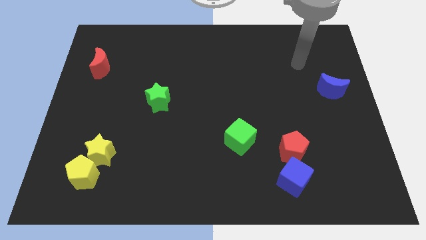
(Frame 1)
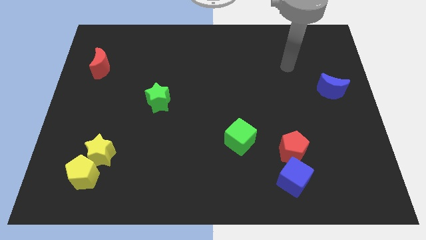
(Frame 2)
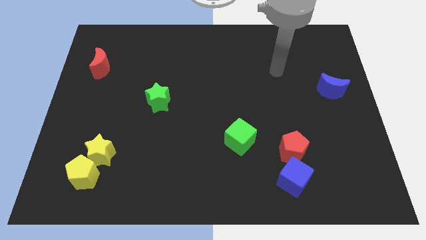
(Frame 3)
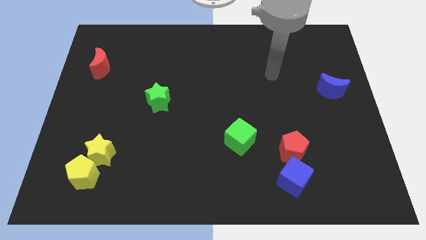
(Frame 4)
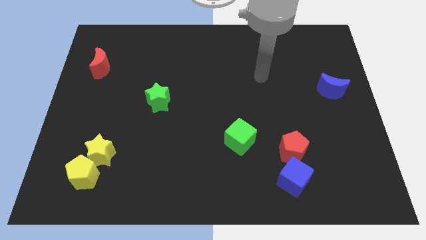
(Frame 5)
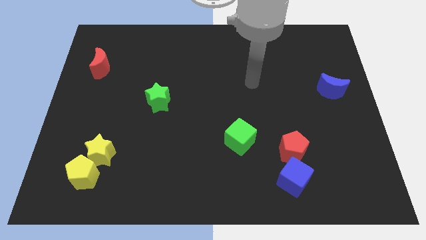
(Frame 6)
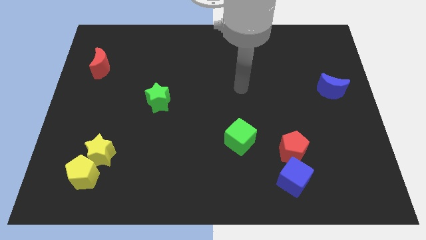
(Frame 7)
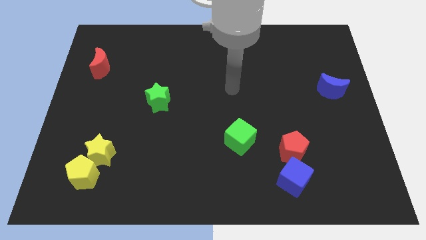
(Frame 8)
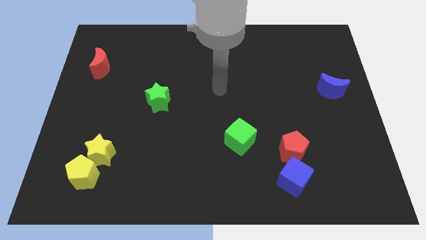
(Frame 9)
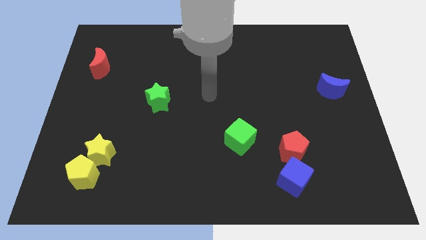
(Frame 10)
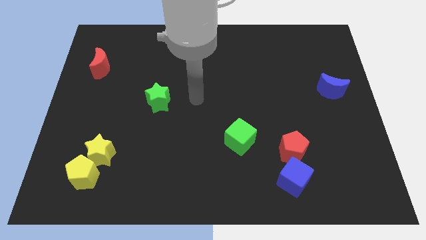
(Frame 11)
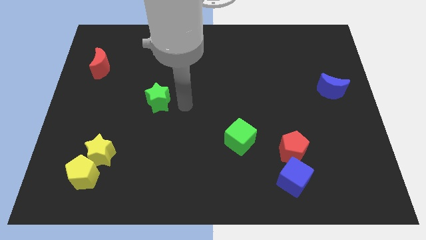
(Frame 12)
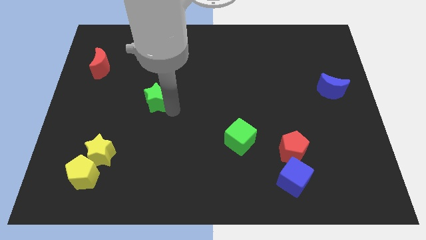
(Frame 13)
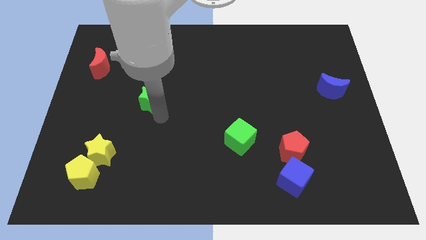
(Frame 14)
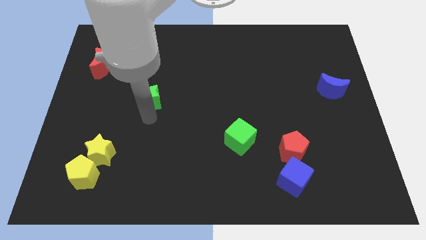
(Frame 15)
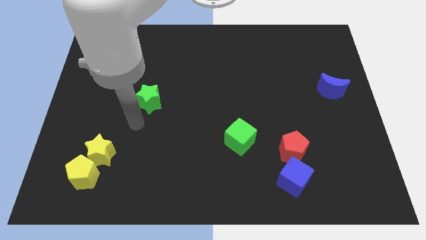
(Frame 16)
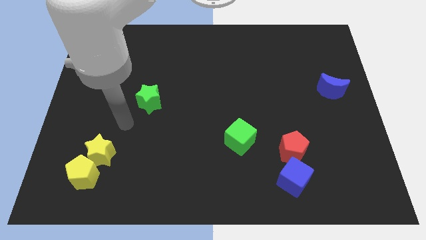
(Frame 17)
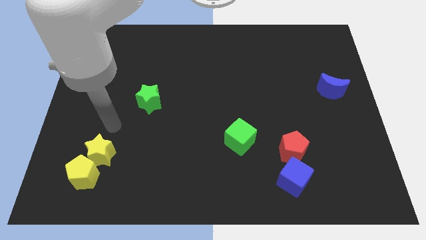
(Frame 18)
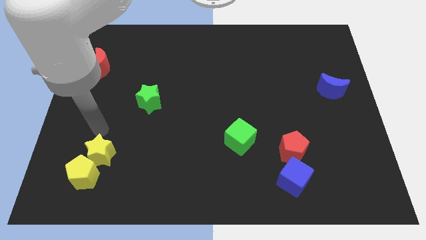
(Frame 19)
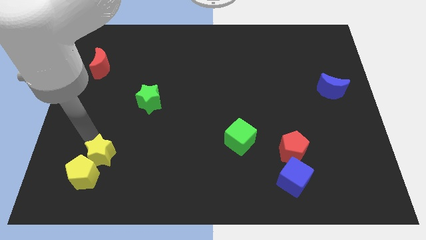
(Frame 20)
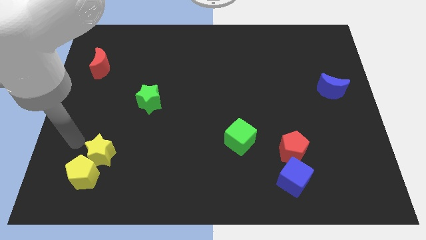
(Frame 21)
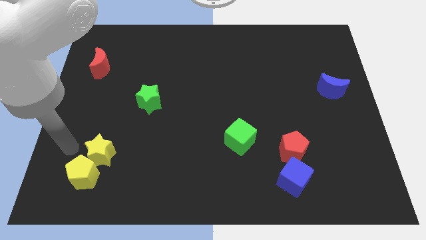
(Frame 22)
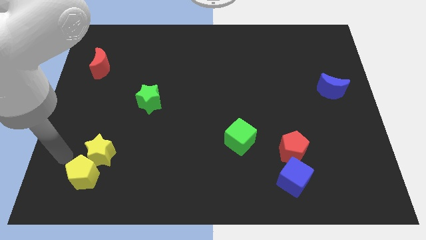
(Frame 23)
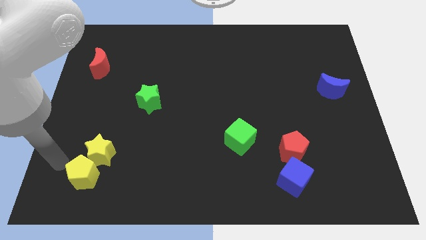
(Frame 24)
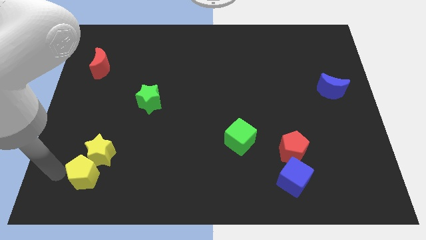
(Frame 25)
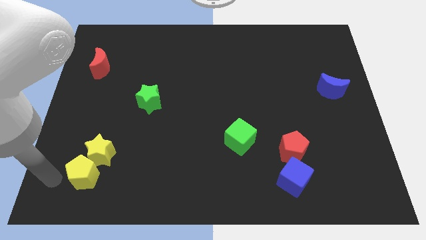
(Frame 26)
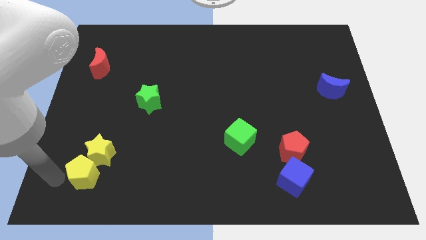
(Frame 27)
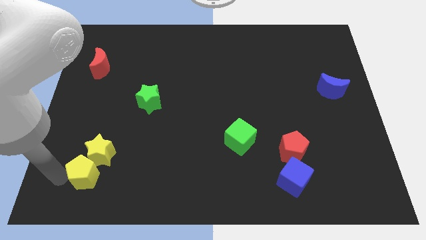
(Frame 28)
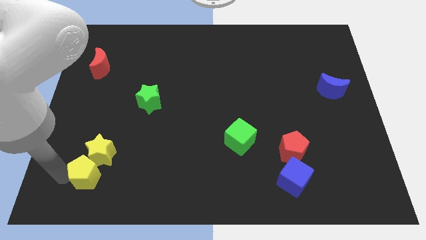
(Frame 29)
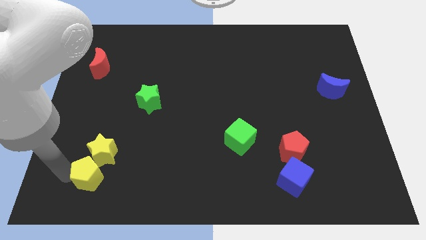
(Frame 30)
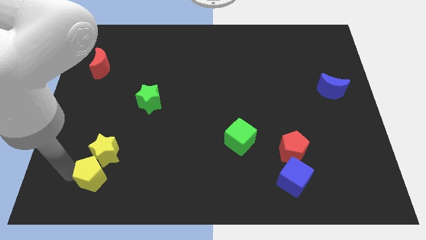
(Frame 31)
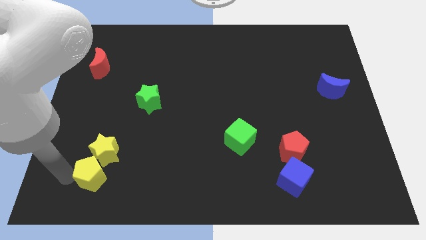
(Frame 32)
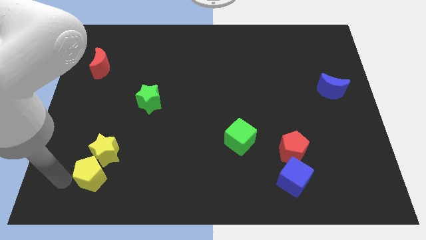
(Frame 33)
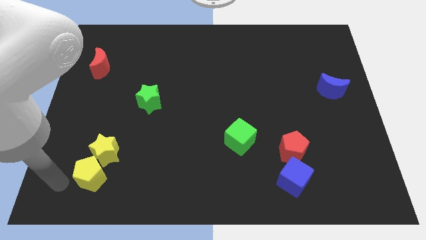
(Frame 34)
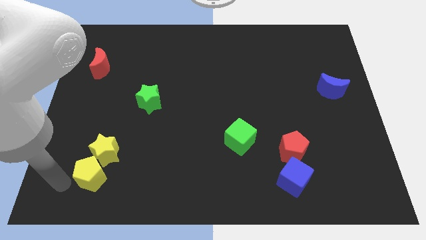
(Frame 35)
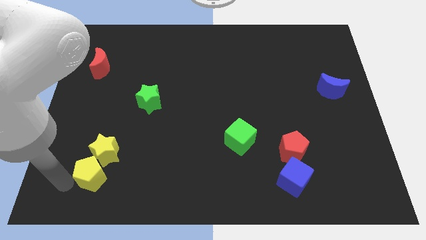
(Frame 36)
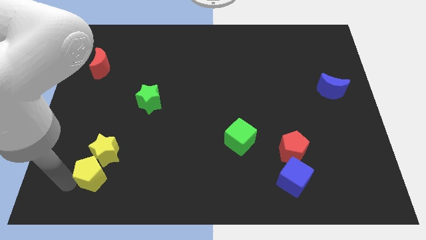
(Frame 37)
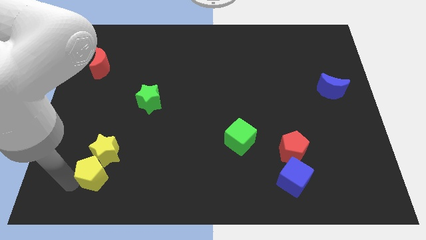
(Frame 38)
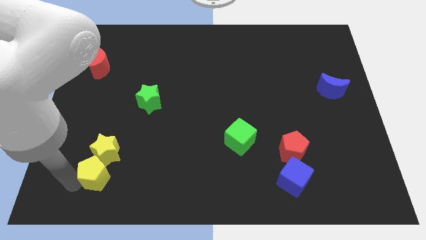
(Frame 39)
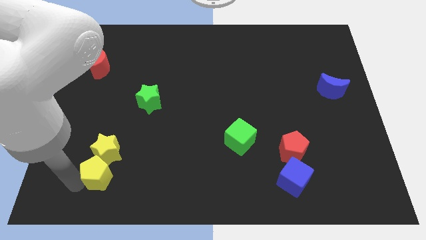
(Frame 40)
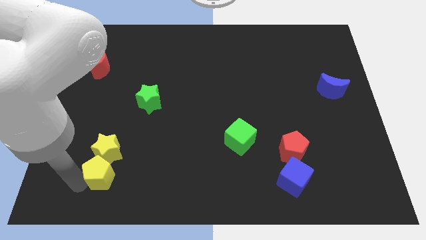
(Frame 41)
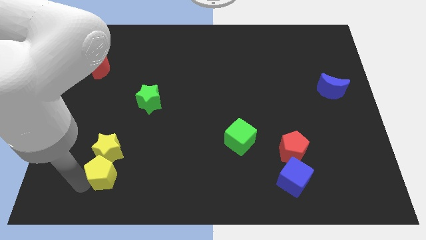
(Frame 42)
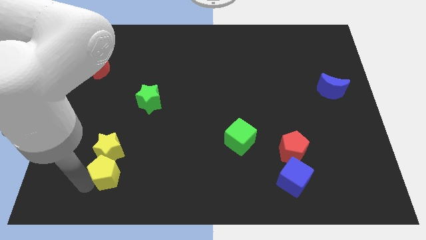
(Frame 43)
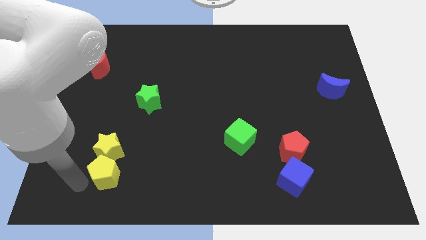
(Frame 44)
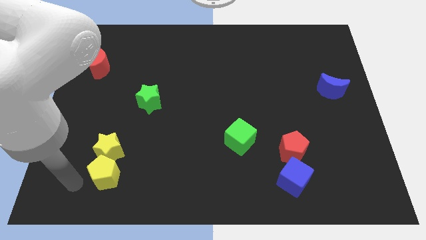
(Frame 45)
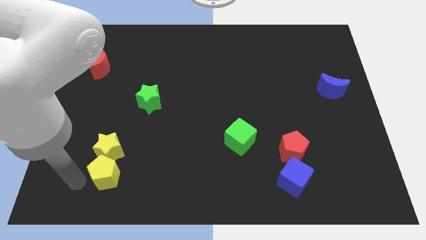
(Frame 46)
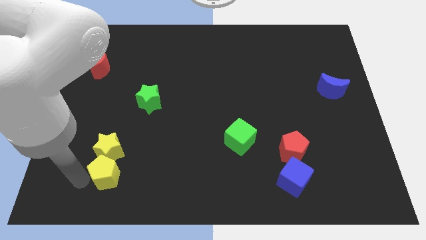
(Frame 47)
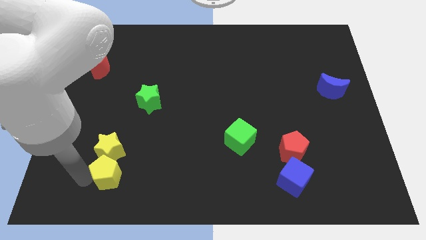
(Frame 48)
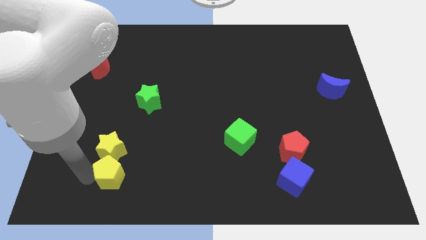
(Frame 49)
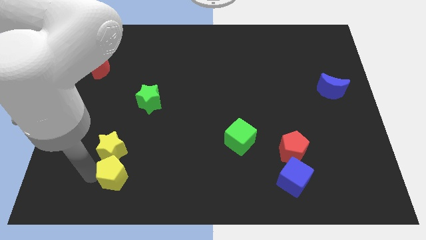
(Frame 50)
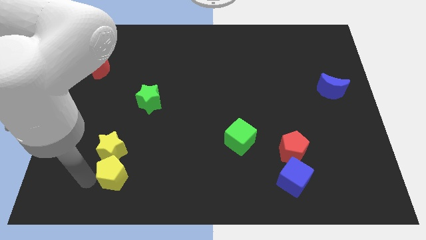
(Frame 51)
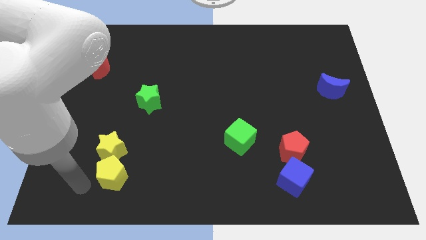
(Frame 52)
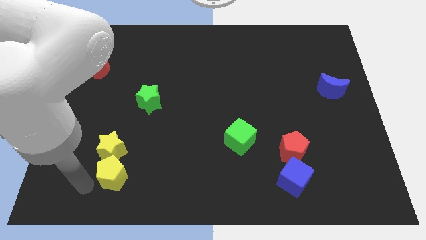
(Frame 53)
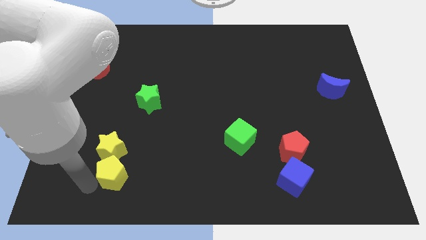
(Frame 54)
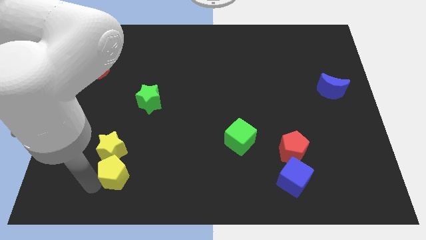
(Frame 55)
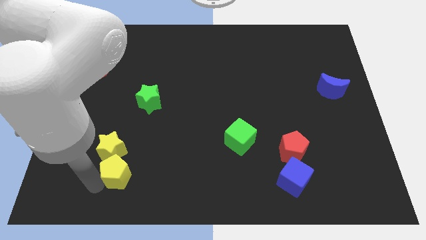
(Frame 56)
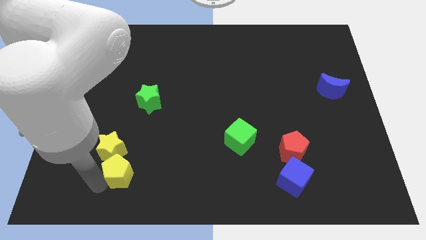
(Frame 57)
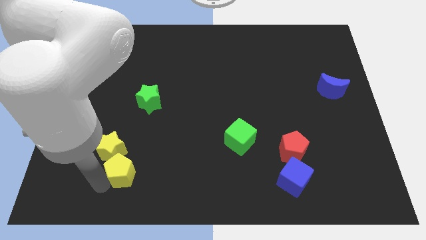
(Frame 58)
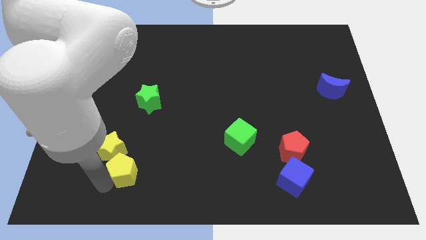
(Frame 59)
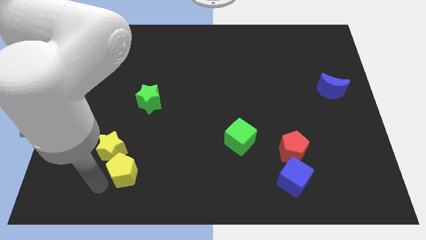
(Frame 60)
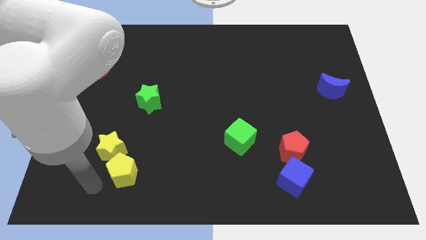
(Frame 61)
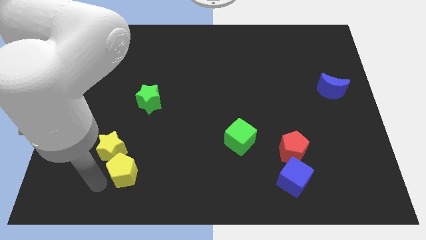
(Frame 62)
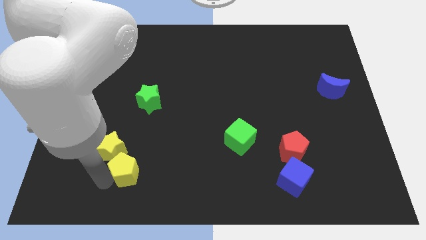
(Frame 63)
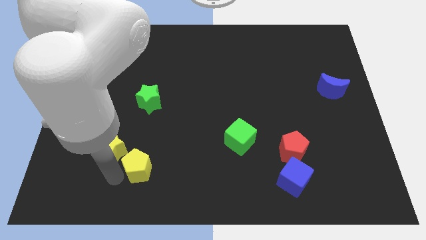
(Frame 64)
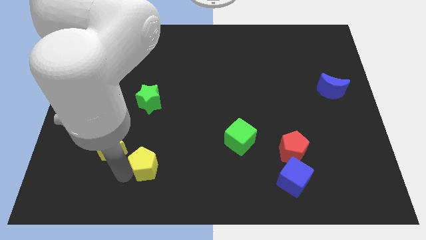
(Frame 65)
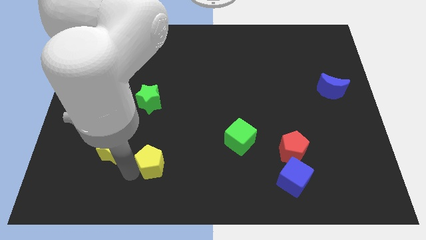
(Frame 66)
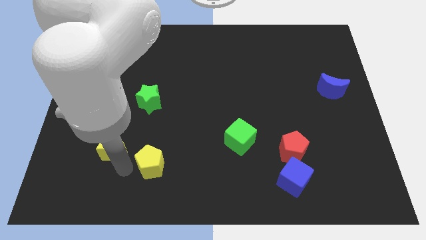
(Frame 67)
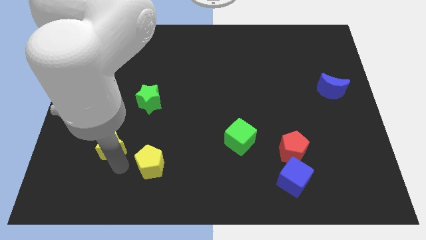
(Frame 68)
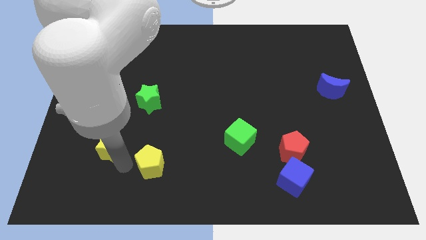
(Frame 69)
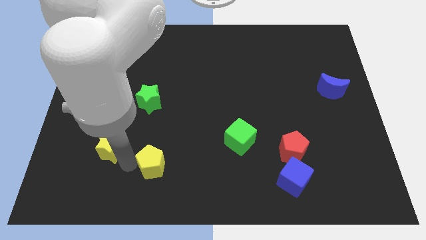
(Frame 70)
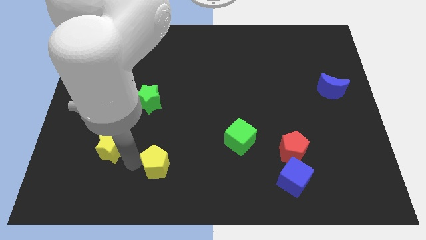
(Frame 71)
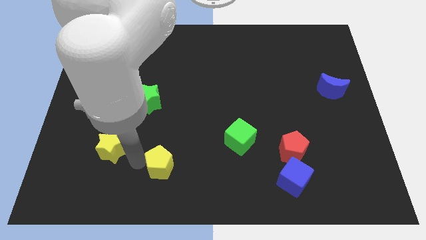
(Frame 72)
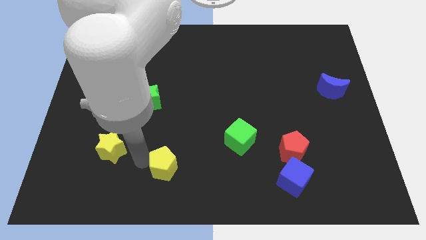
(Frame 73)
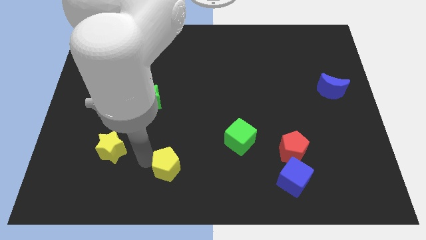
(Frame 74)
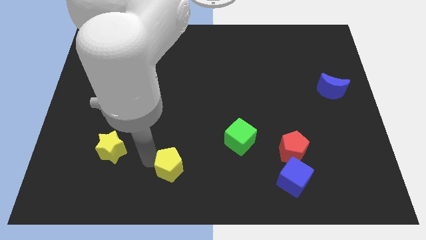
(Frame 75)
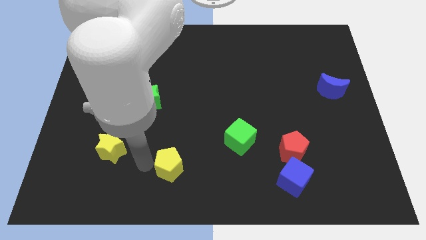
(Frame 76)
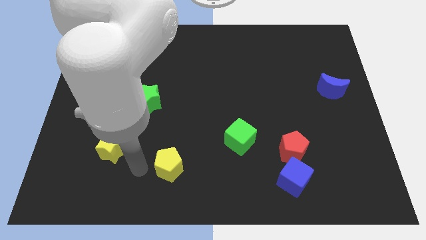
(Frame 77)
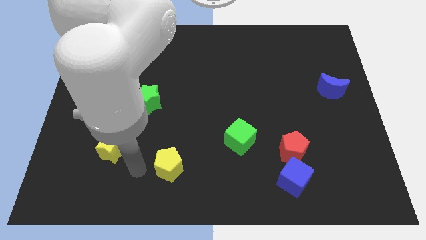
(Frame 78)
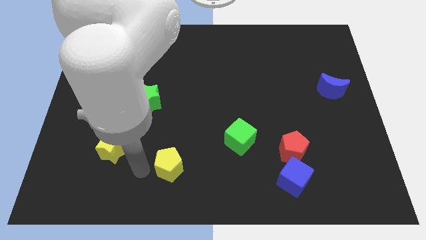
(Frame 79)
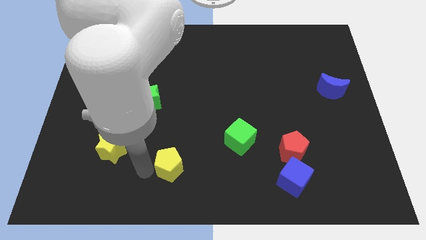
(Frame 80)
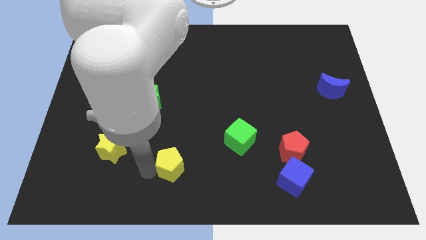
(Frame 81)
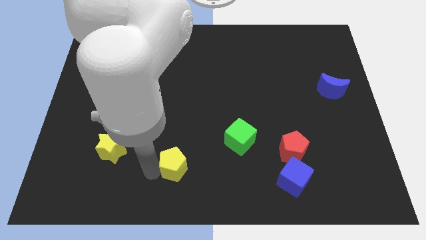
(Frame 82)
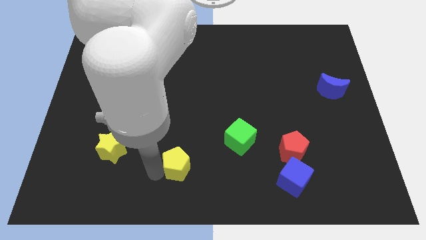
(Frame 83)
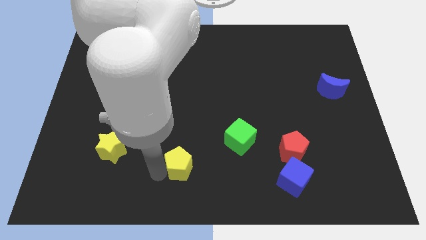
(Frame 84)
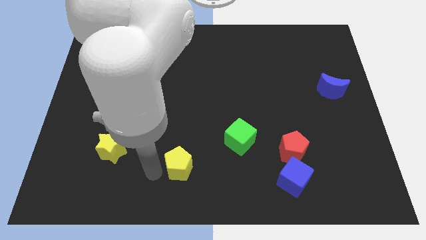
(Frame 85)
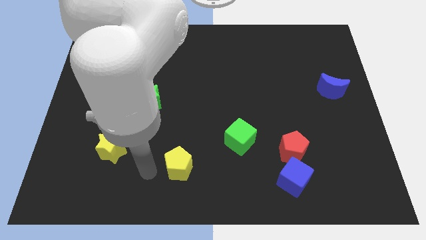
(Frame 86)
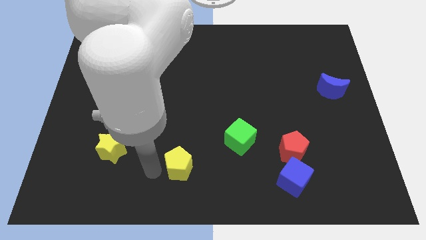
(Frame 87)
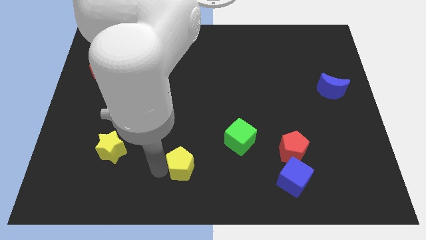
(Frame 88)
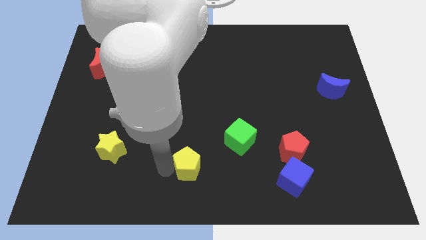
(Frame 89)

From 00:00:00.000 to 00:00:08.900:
push the yellow pentagon to the right
